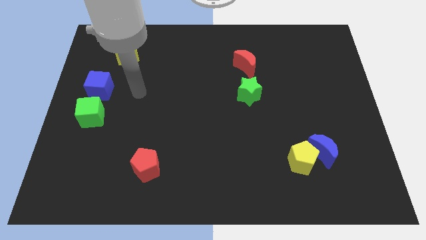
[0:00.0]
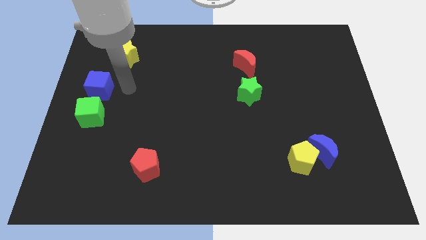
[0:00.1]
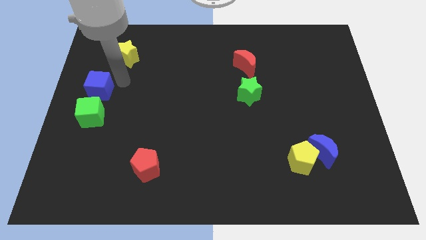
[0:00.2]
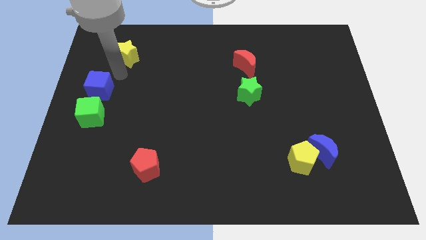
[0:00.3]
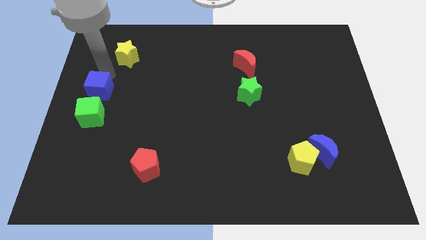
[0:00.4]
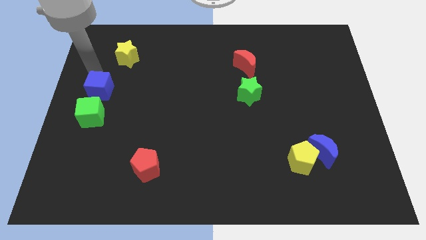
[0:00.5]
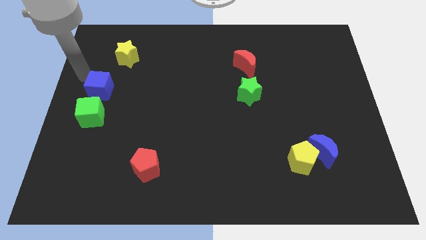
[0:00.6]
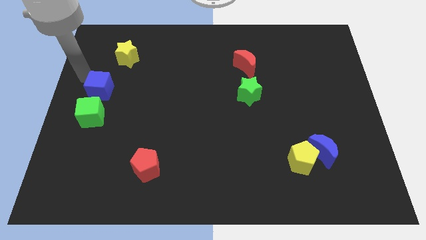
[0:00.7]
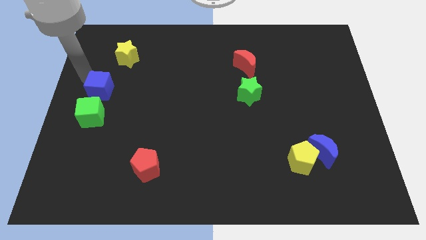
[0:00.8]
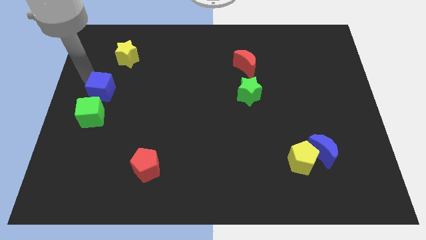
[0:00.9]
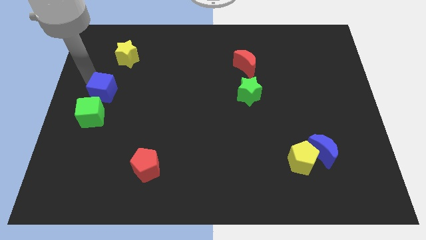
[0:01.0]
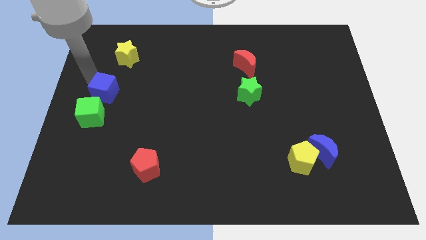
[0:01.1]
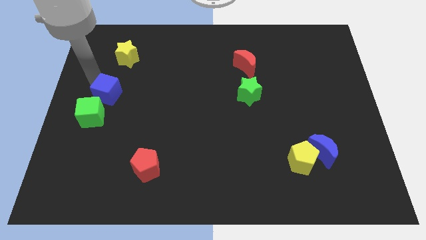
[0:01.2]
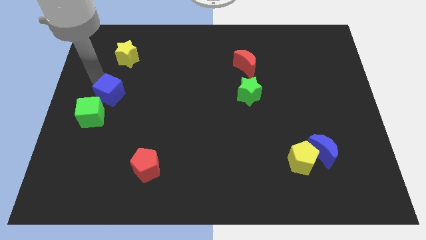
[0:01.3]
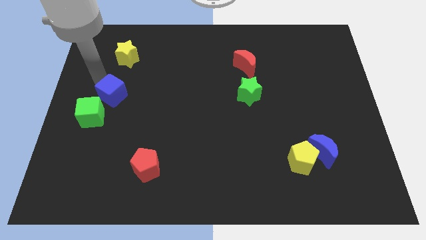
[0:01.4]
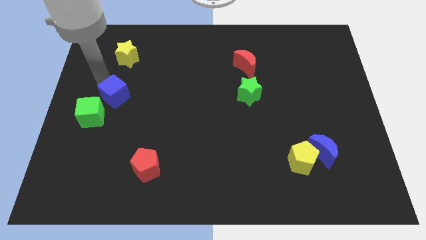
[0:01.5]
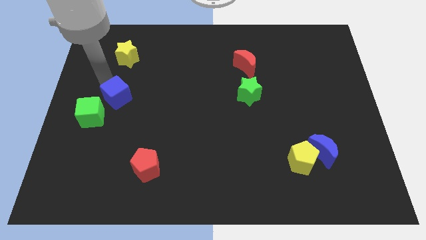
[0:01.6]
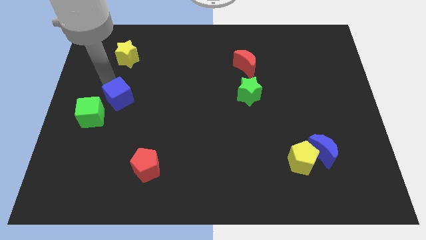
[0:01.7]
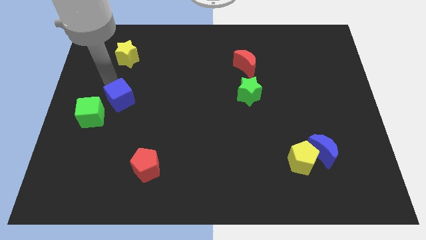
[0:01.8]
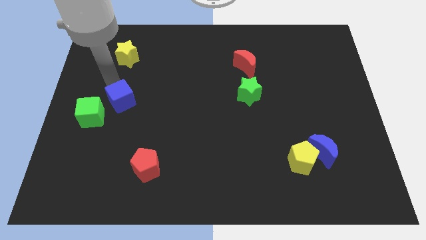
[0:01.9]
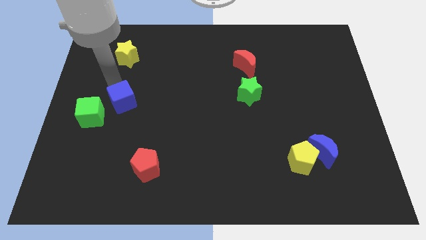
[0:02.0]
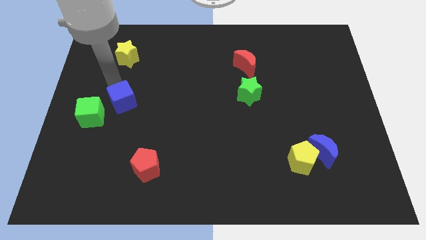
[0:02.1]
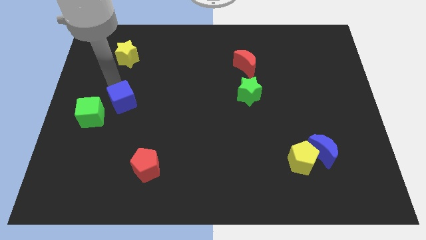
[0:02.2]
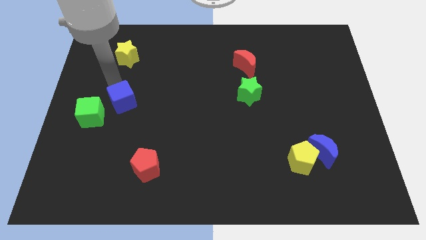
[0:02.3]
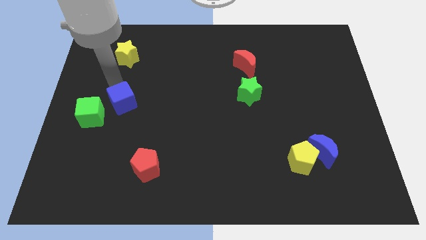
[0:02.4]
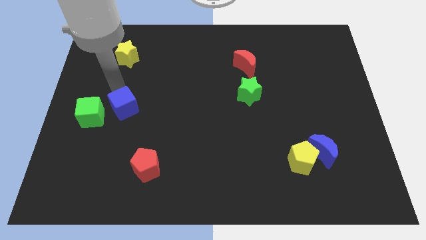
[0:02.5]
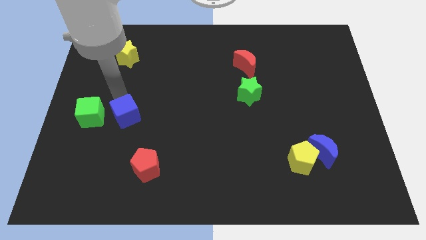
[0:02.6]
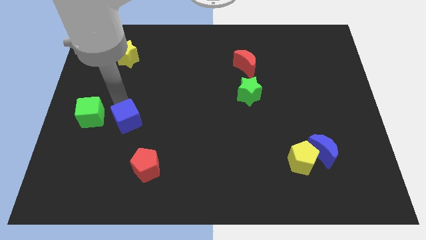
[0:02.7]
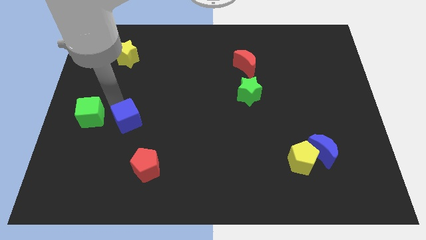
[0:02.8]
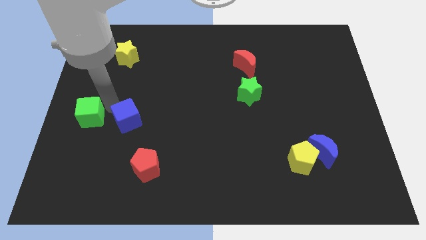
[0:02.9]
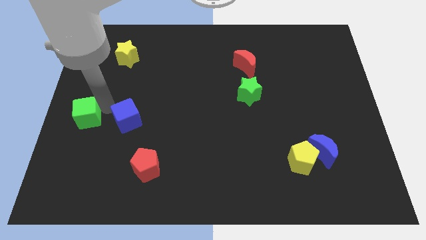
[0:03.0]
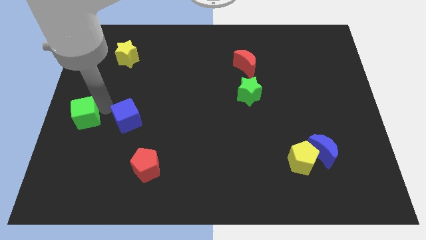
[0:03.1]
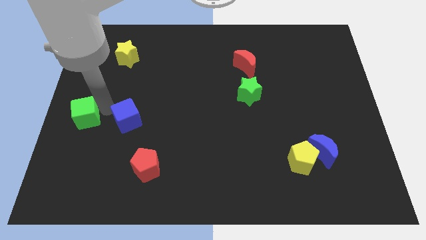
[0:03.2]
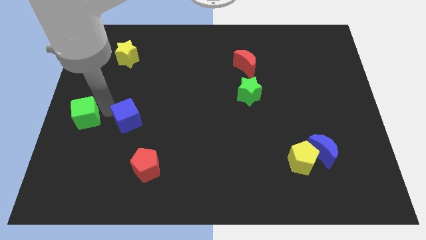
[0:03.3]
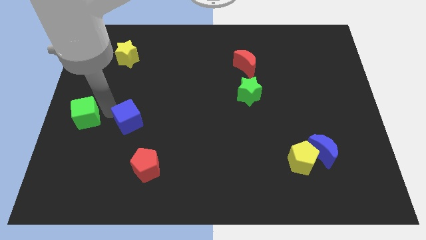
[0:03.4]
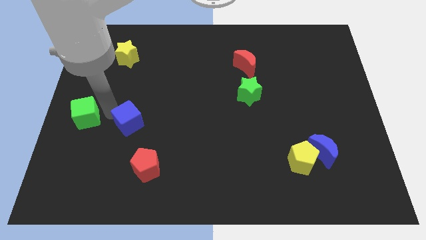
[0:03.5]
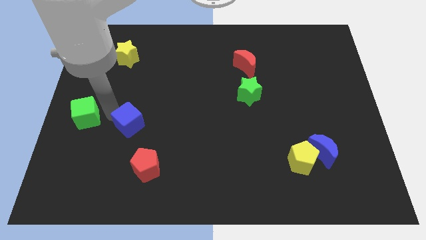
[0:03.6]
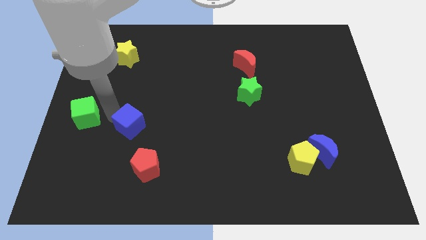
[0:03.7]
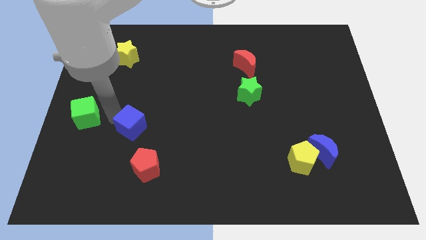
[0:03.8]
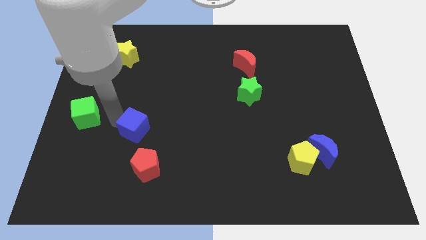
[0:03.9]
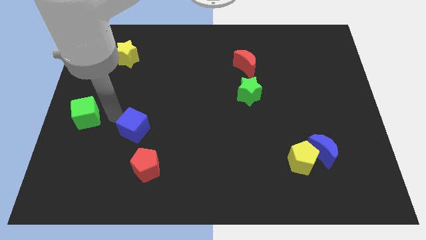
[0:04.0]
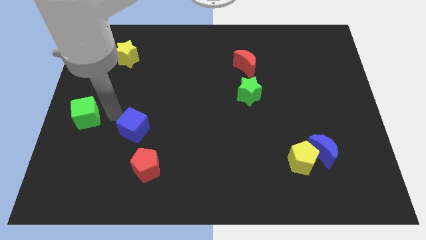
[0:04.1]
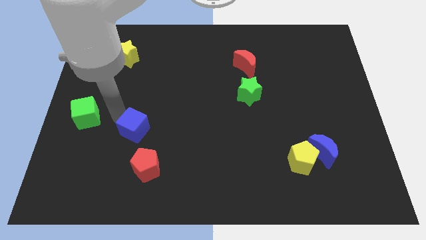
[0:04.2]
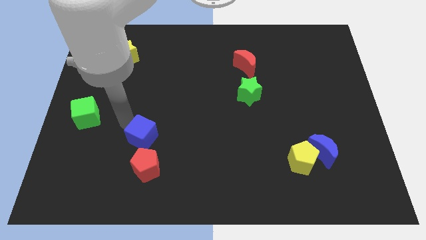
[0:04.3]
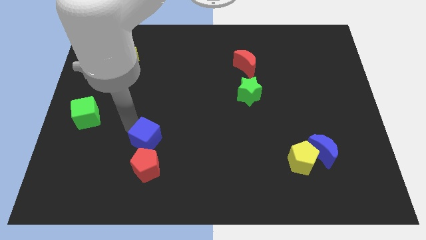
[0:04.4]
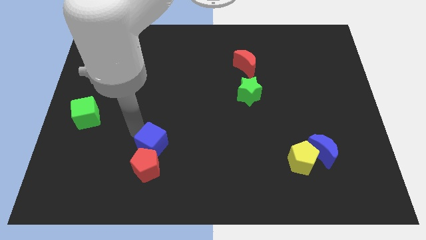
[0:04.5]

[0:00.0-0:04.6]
slide the blue cube downwards and right

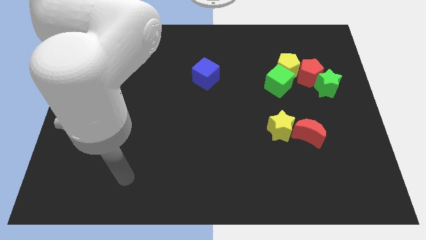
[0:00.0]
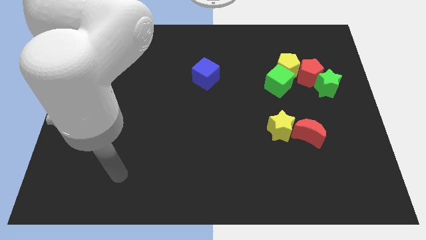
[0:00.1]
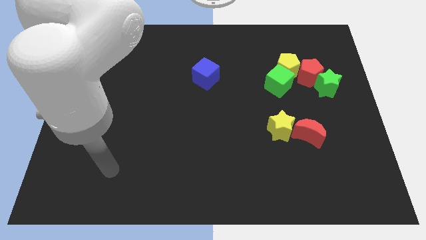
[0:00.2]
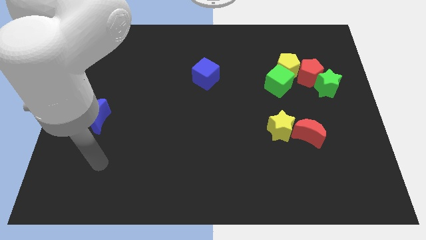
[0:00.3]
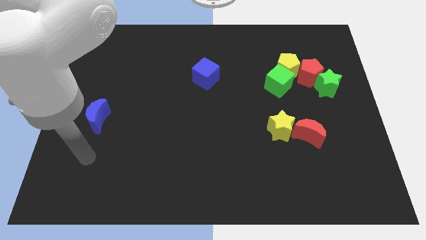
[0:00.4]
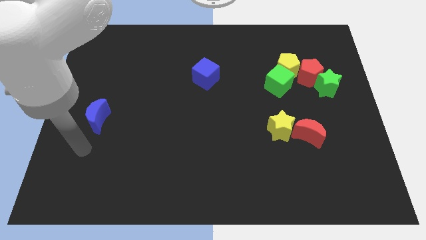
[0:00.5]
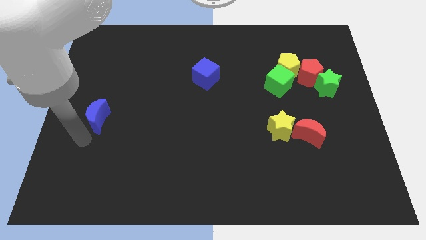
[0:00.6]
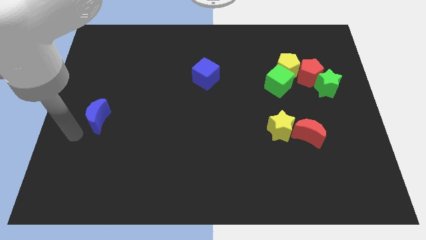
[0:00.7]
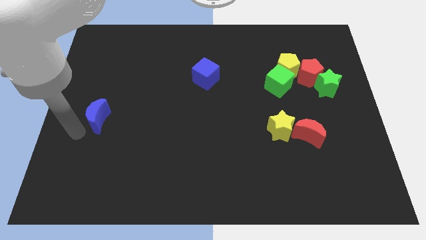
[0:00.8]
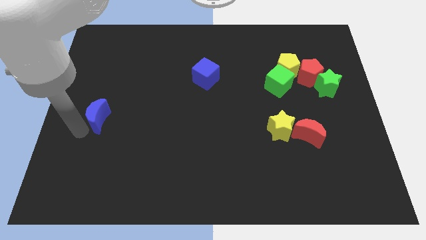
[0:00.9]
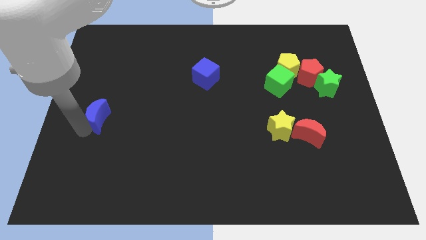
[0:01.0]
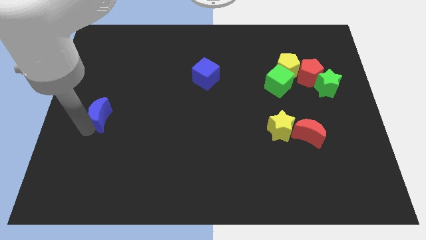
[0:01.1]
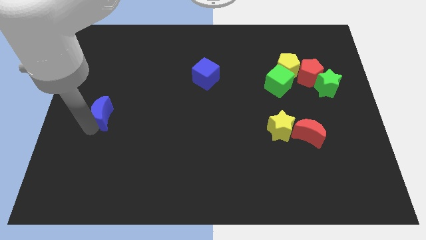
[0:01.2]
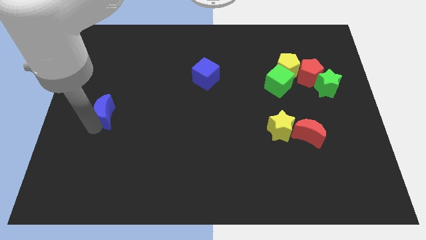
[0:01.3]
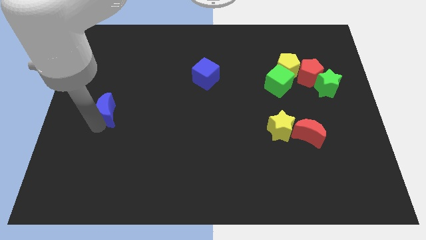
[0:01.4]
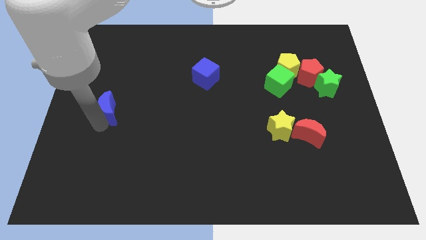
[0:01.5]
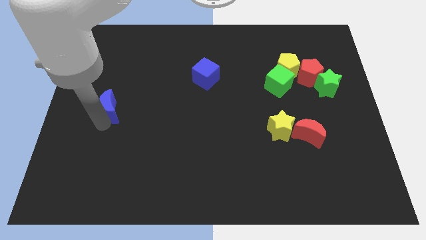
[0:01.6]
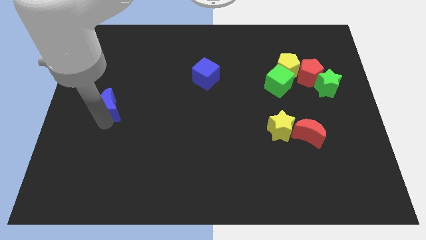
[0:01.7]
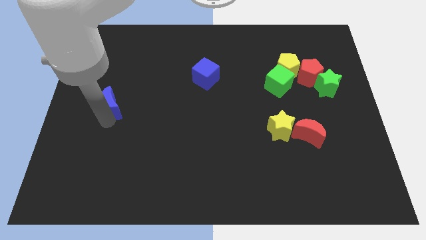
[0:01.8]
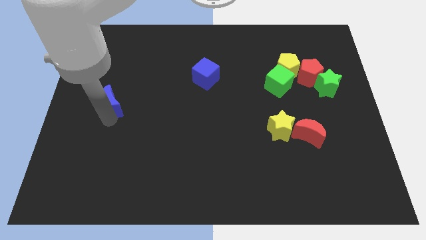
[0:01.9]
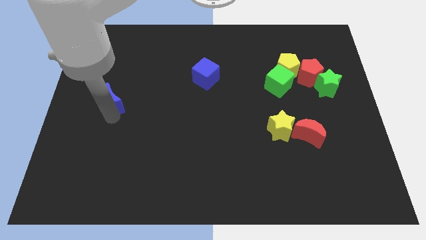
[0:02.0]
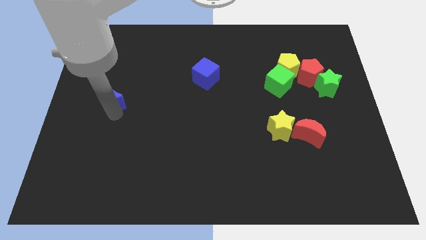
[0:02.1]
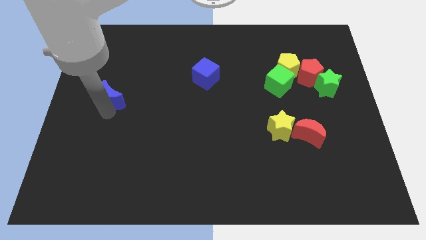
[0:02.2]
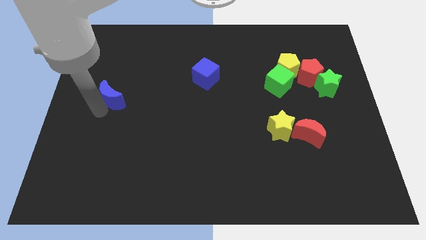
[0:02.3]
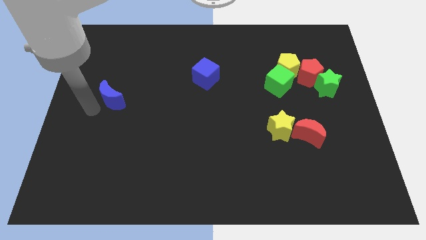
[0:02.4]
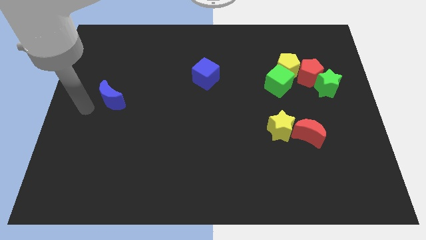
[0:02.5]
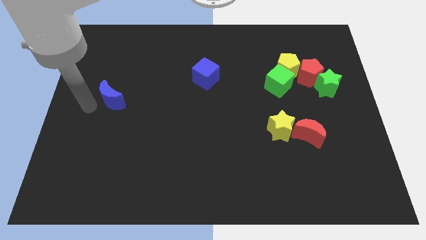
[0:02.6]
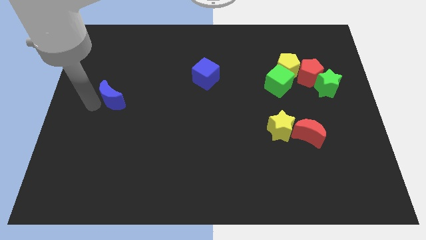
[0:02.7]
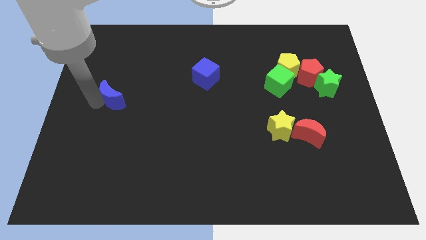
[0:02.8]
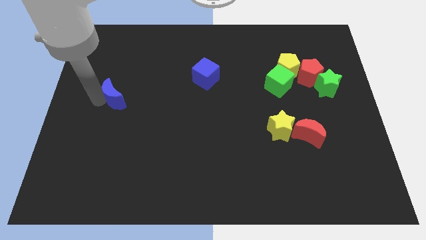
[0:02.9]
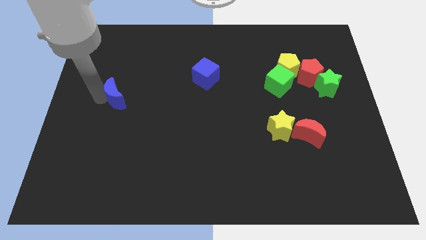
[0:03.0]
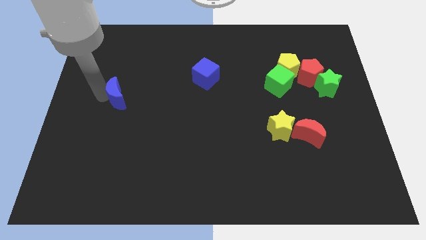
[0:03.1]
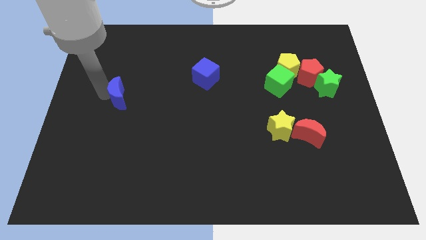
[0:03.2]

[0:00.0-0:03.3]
slide the blue moon diagonally upwards and right a little

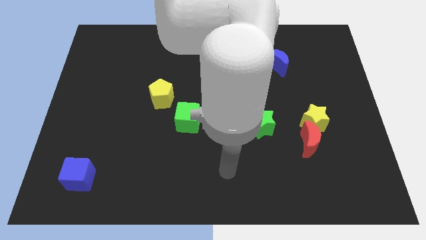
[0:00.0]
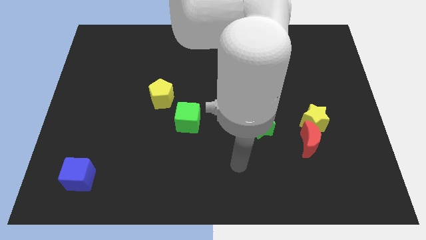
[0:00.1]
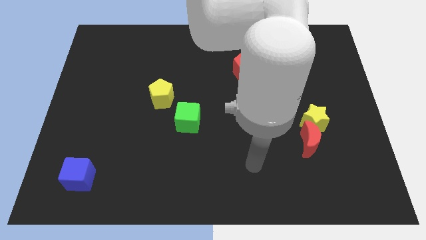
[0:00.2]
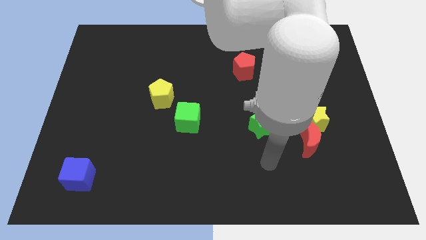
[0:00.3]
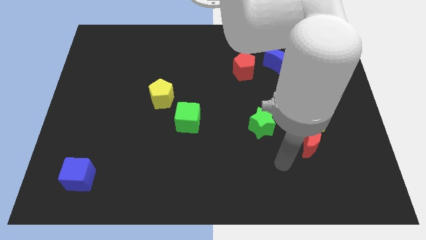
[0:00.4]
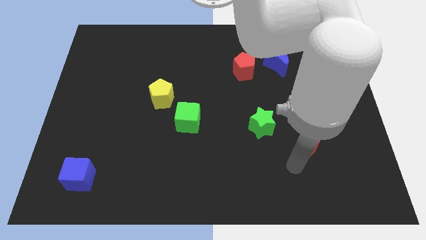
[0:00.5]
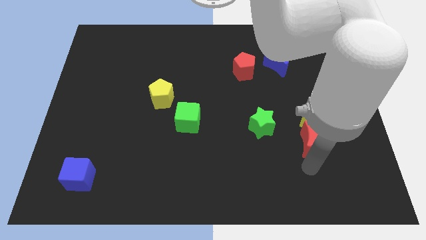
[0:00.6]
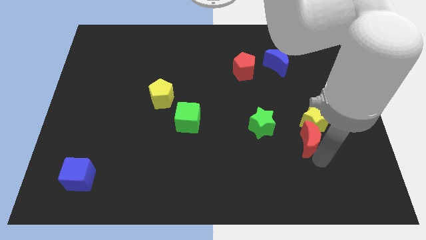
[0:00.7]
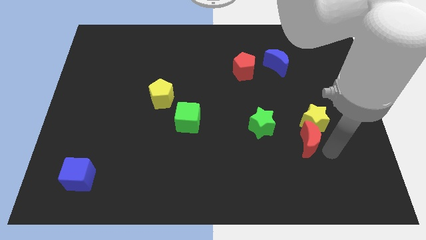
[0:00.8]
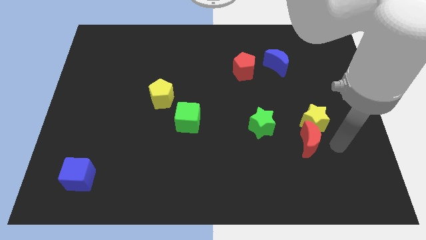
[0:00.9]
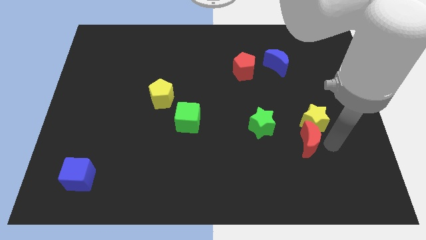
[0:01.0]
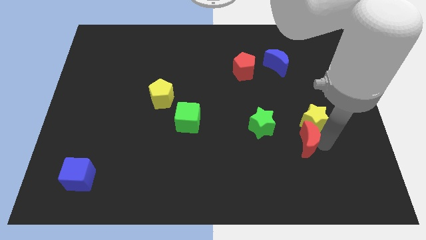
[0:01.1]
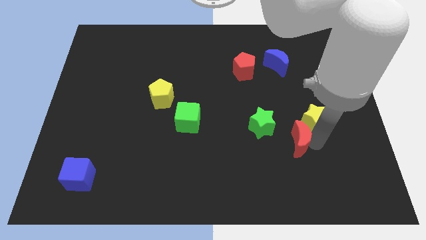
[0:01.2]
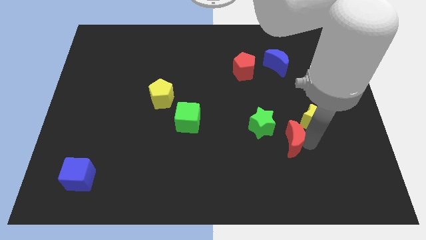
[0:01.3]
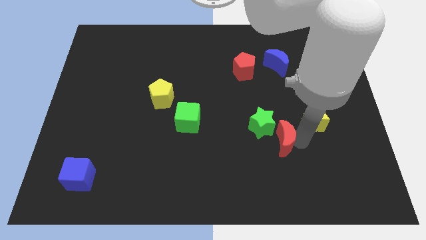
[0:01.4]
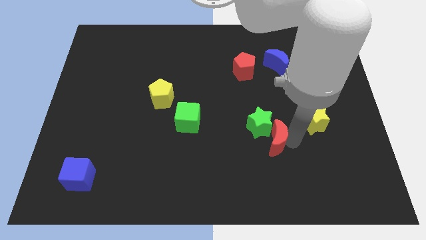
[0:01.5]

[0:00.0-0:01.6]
slightly push the red moon to the left
